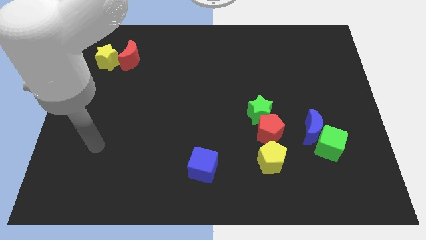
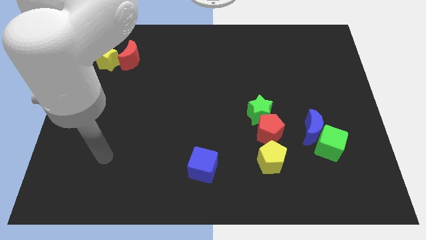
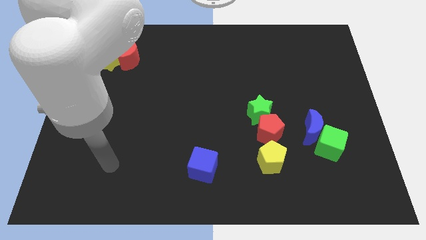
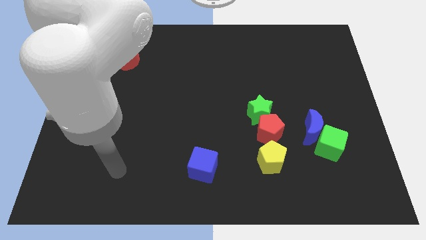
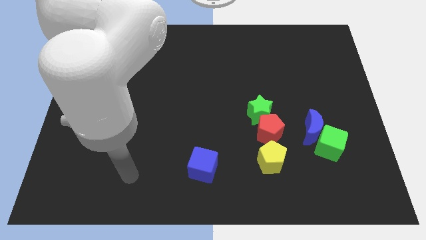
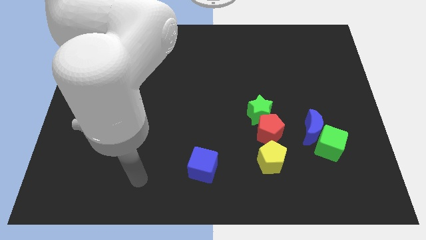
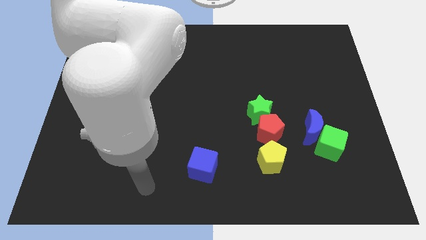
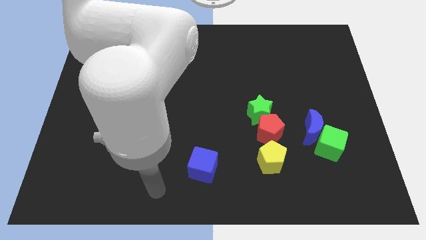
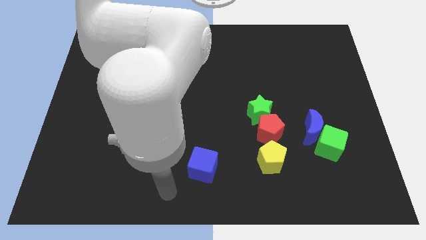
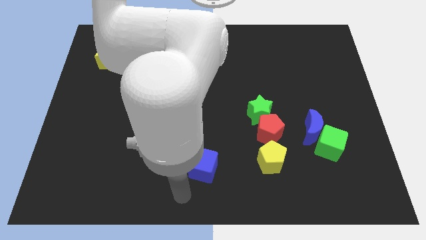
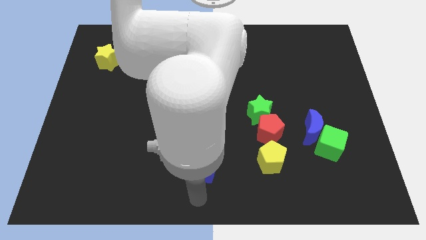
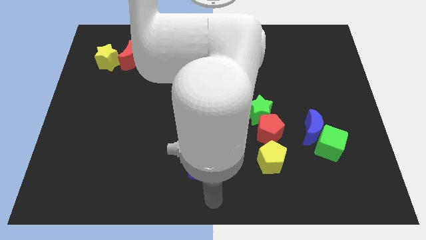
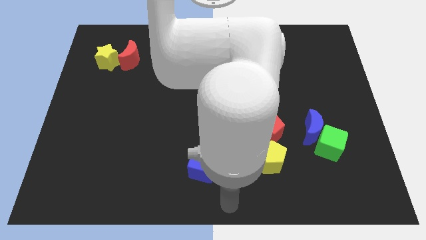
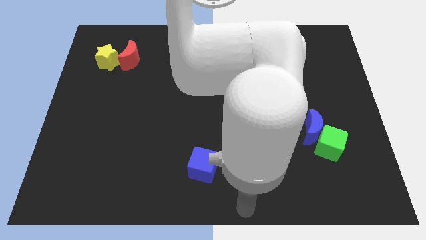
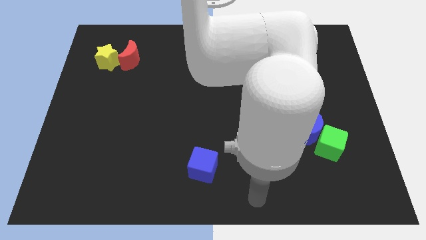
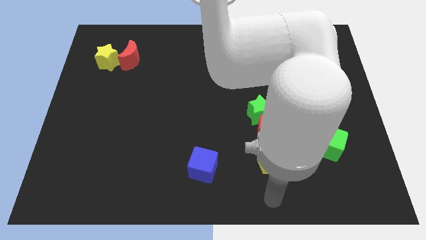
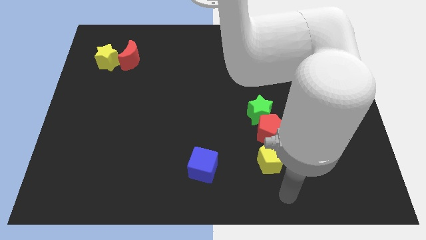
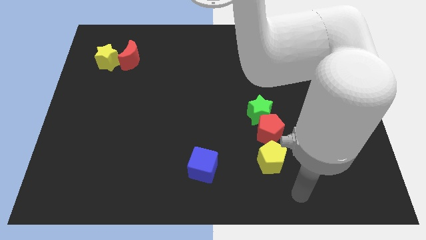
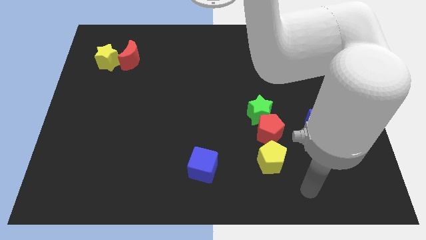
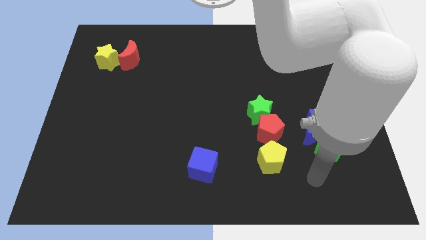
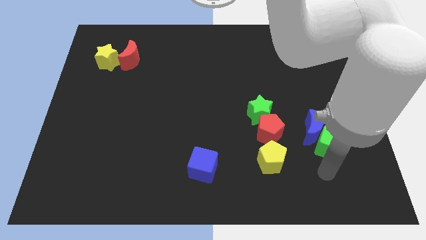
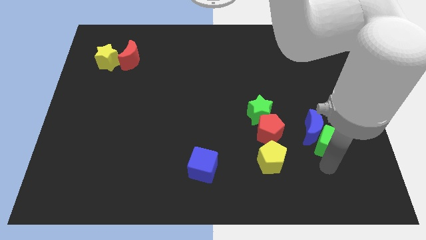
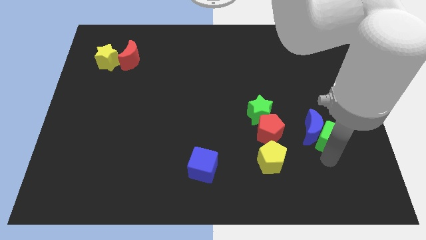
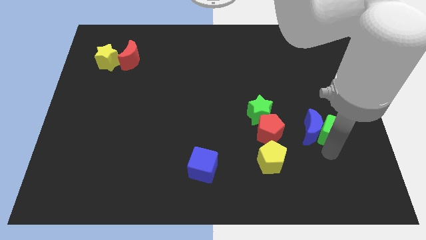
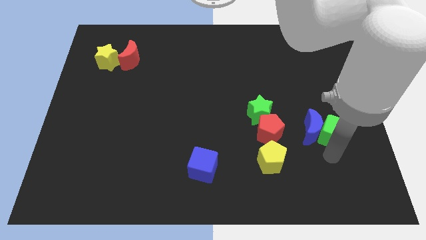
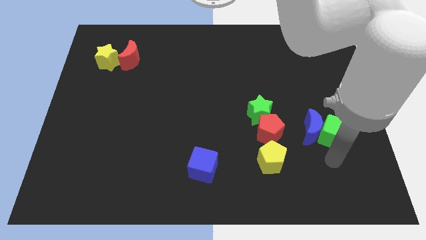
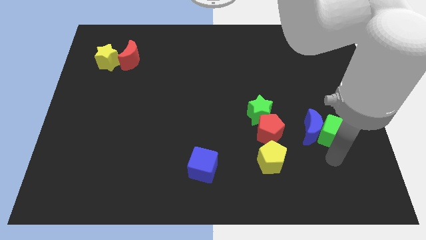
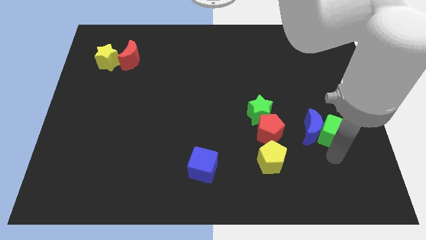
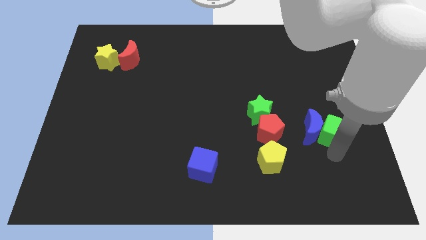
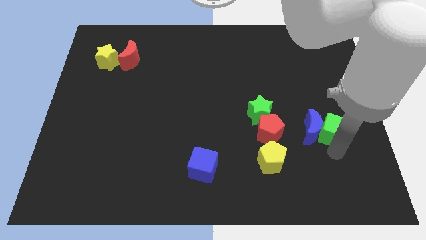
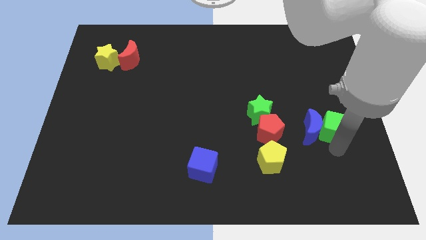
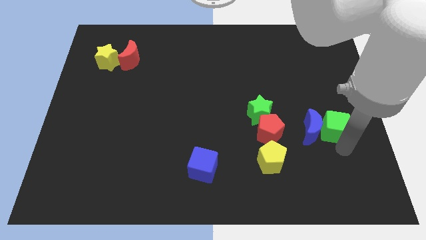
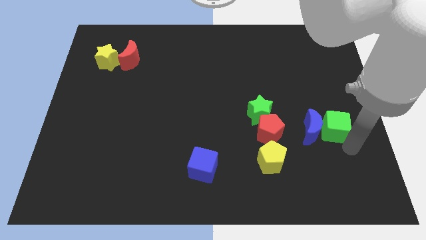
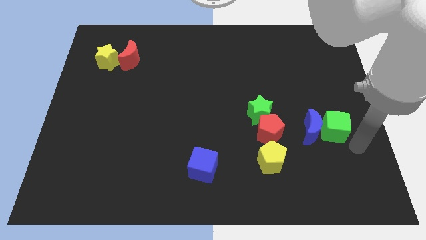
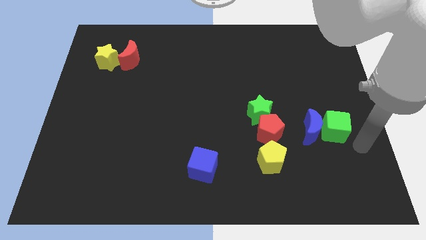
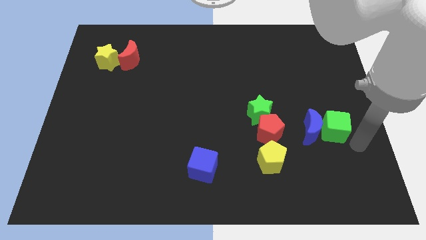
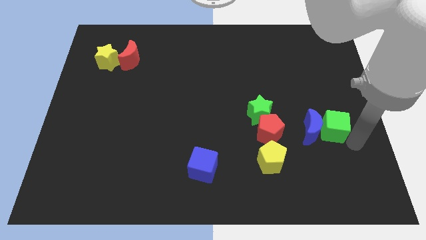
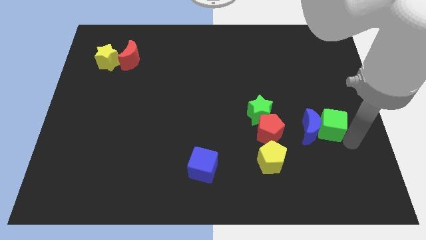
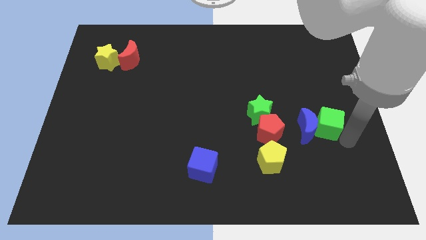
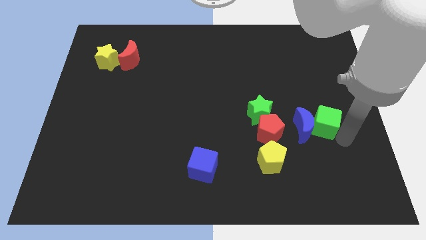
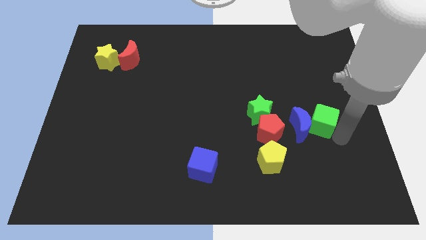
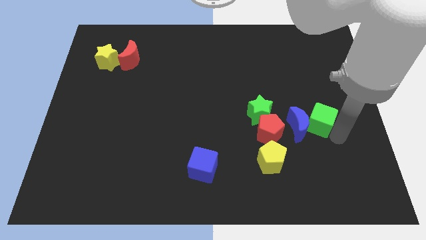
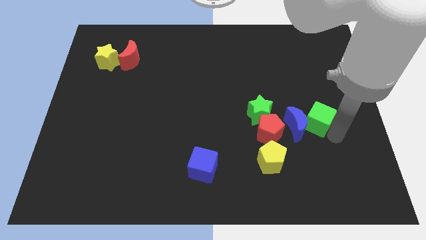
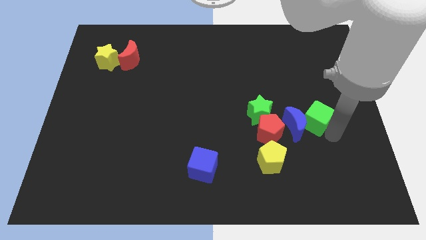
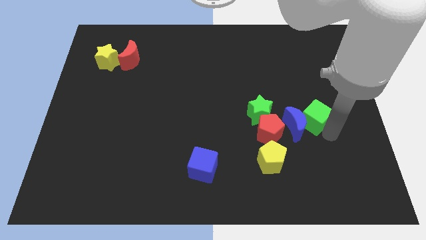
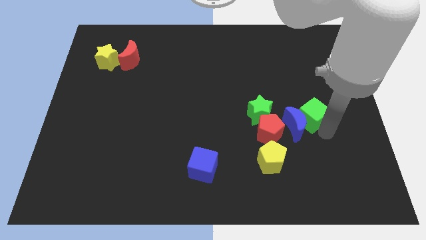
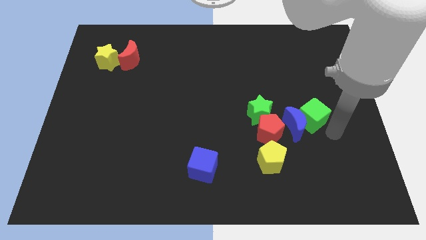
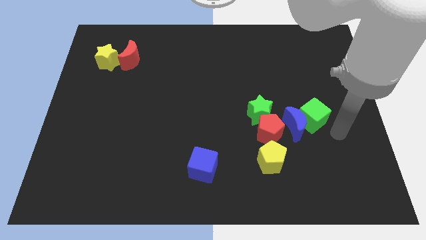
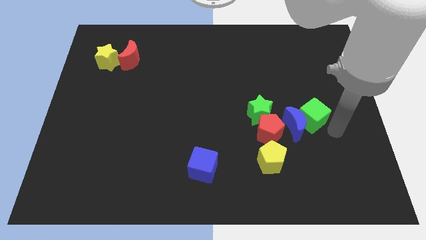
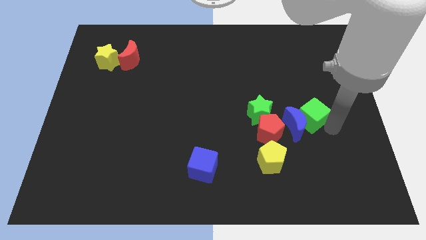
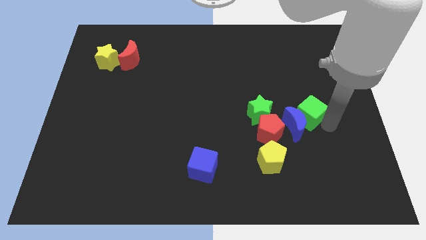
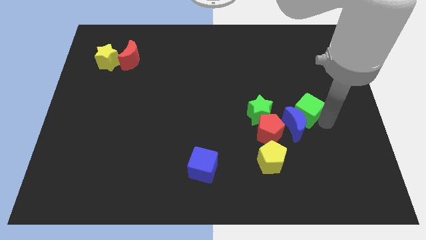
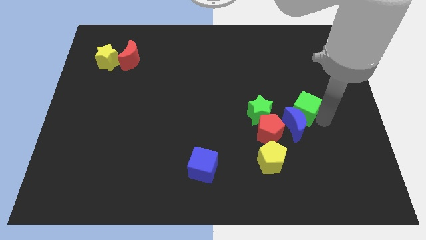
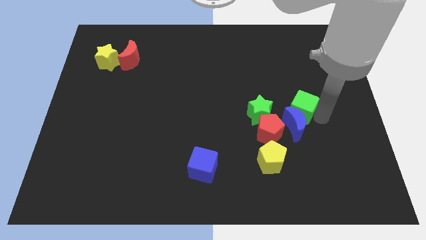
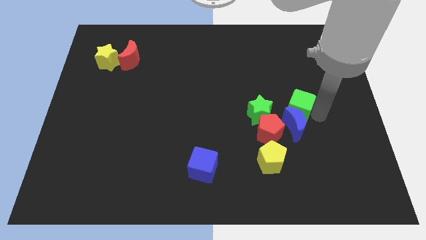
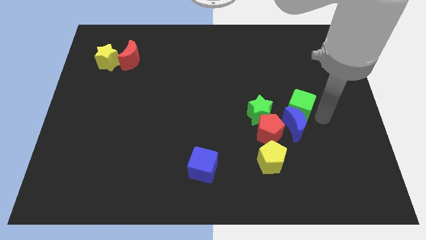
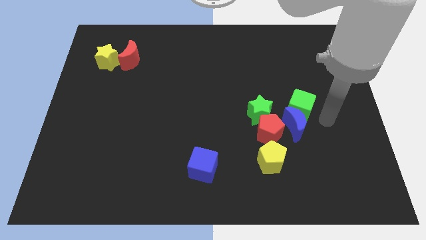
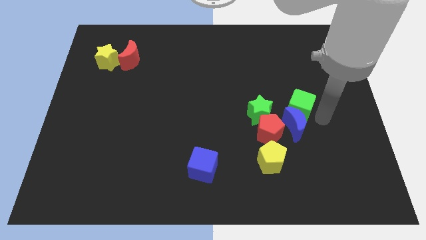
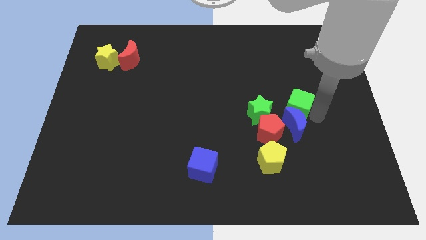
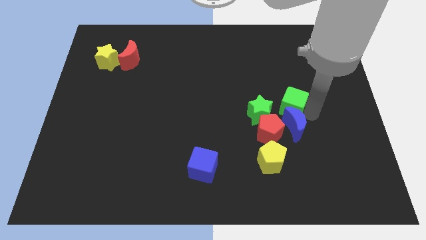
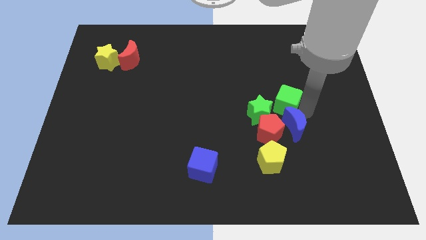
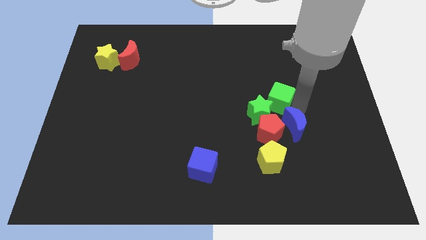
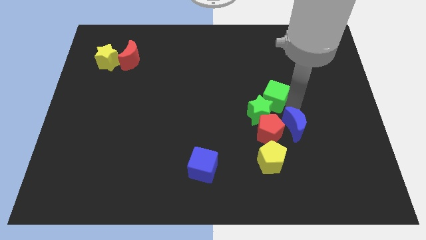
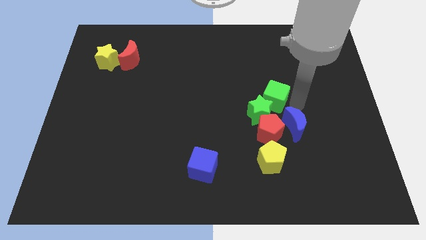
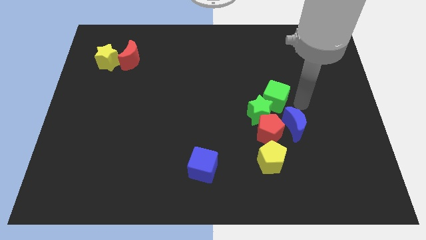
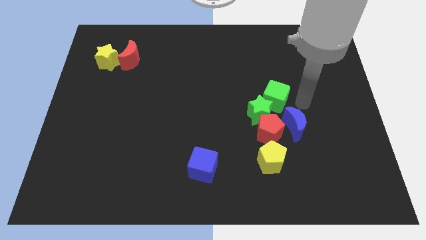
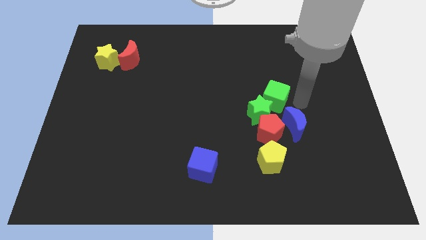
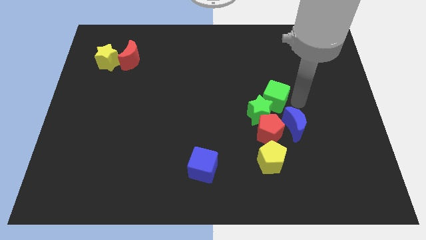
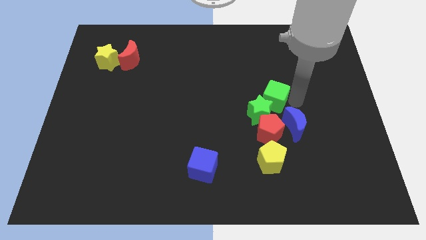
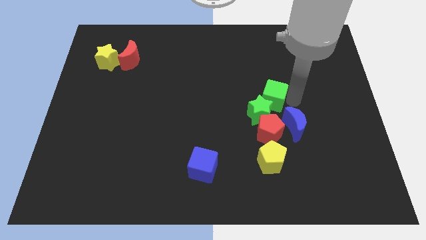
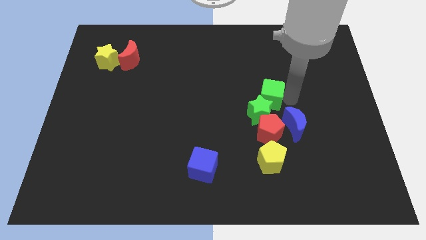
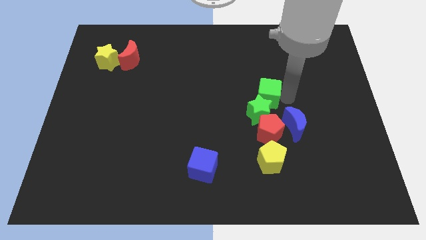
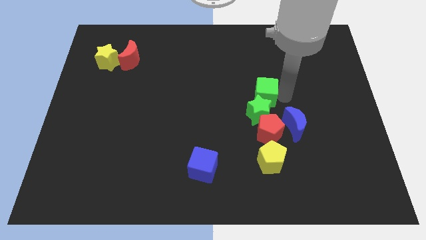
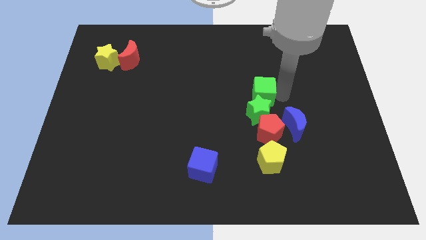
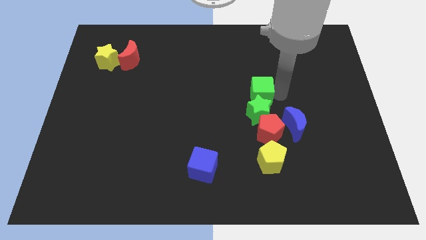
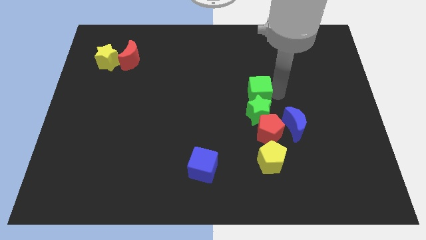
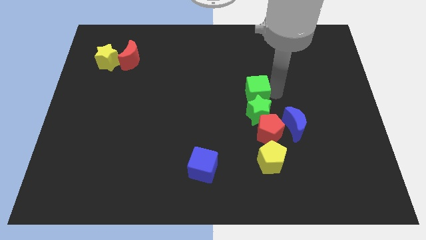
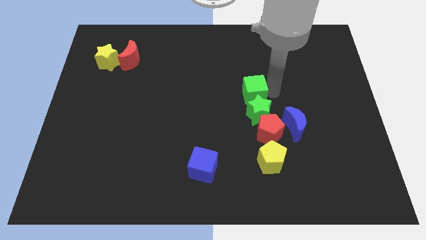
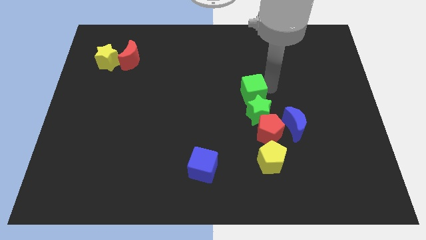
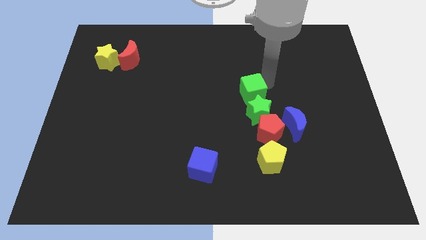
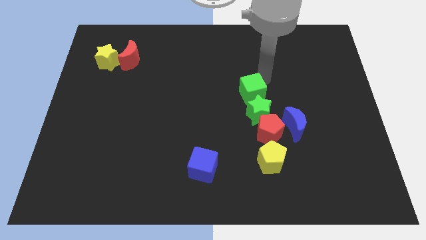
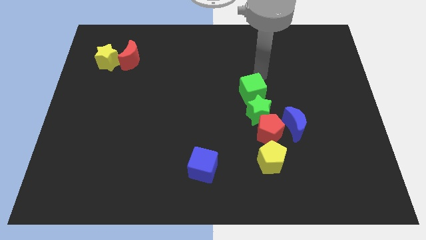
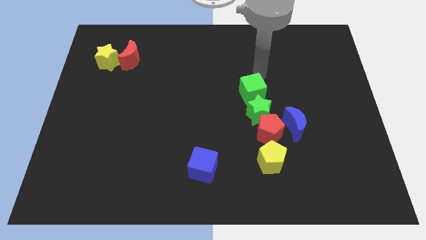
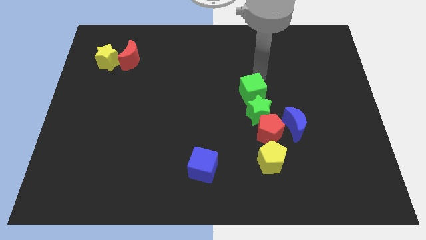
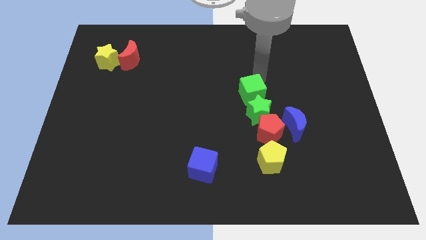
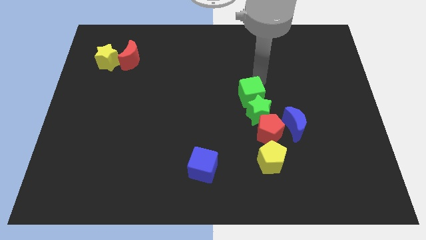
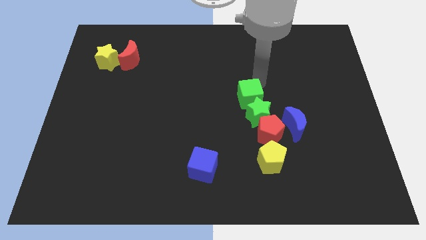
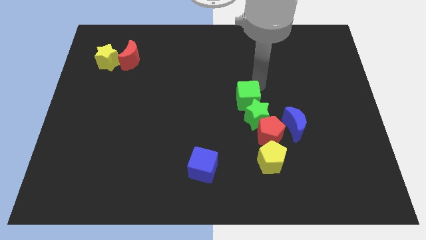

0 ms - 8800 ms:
put the green cube to the top left side of the red pentagon
